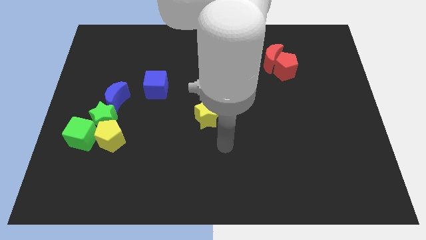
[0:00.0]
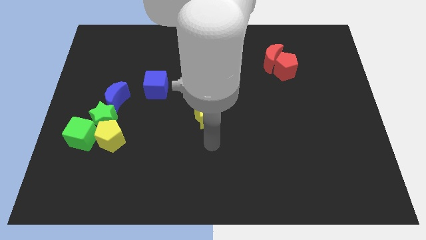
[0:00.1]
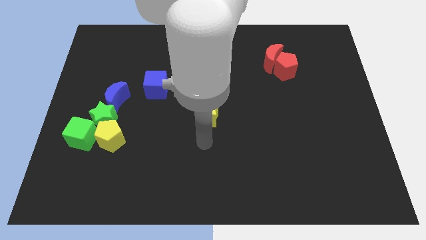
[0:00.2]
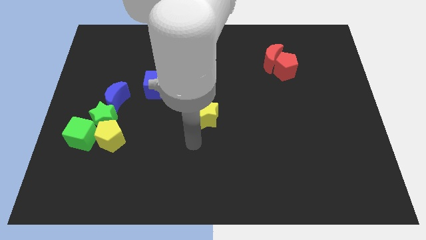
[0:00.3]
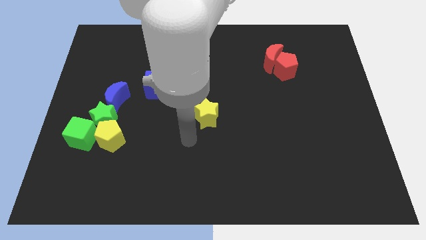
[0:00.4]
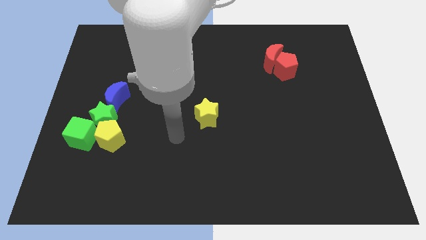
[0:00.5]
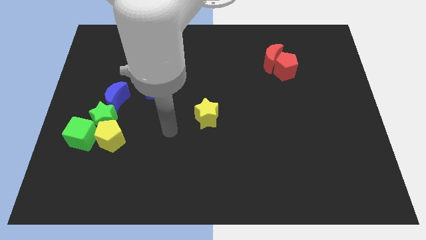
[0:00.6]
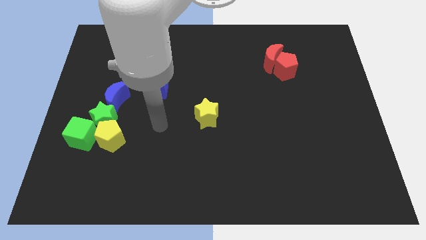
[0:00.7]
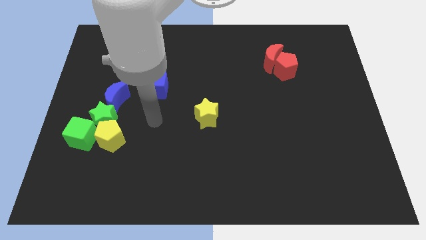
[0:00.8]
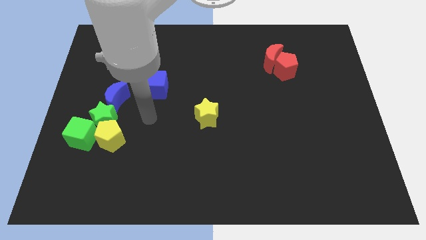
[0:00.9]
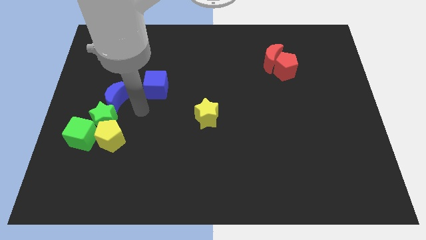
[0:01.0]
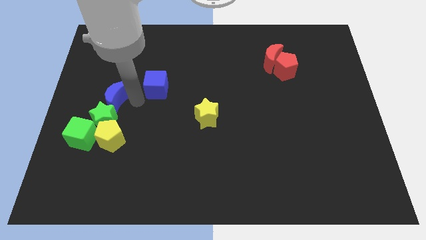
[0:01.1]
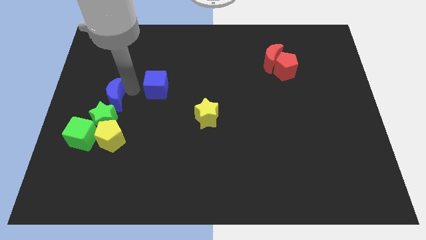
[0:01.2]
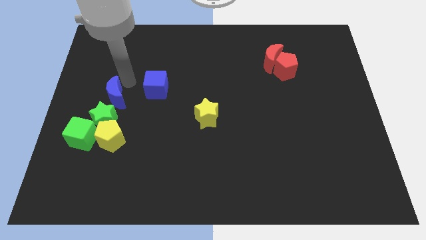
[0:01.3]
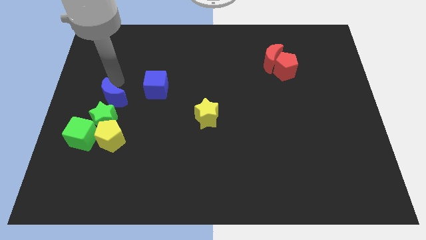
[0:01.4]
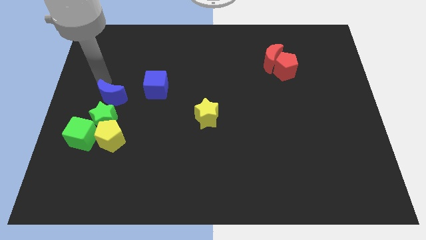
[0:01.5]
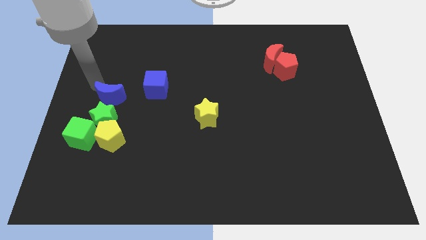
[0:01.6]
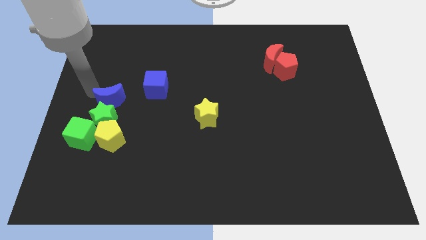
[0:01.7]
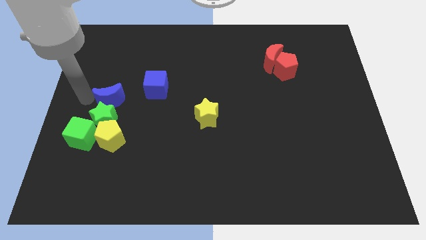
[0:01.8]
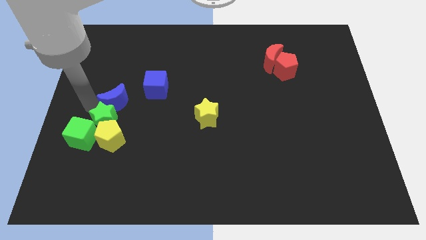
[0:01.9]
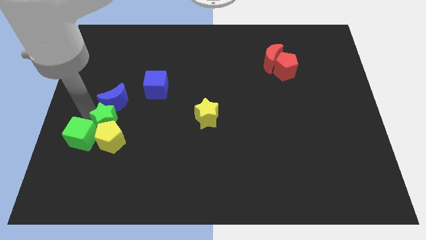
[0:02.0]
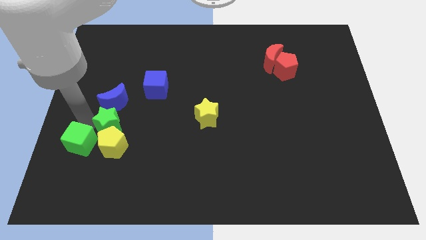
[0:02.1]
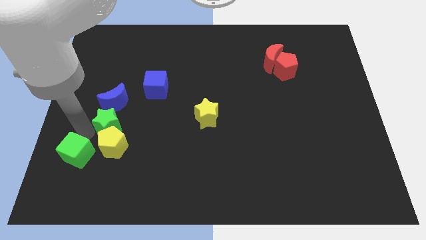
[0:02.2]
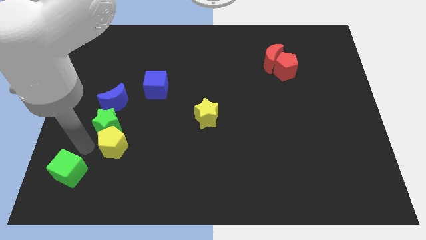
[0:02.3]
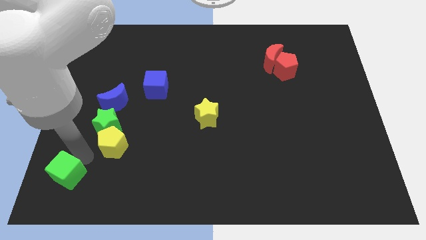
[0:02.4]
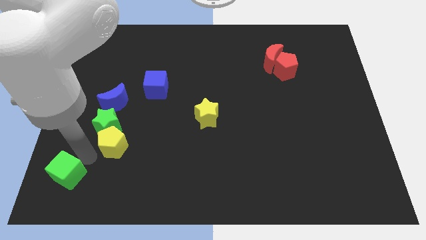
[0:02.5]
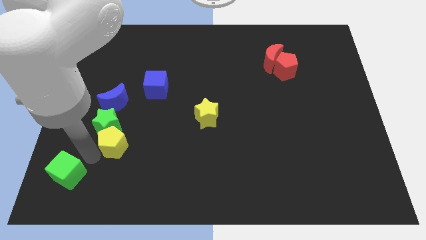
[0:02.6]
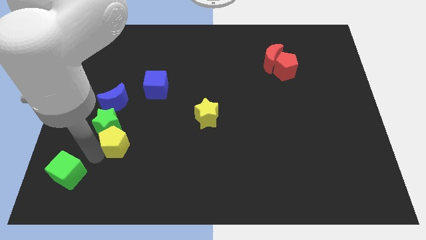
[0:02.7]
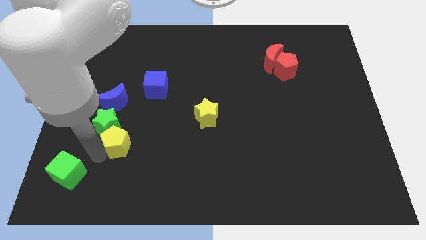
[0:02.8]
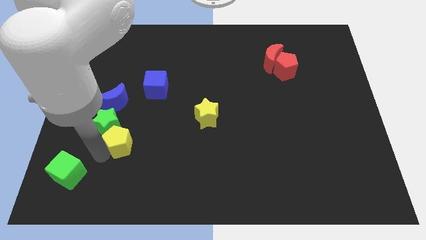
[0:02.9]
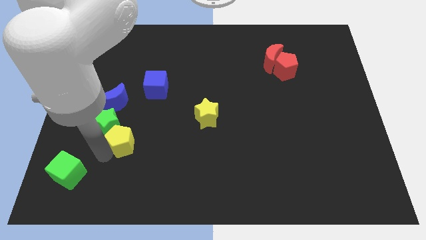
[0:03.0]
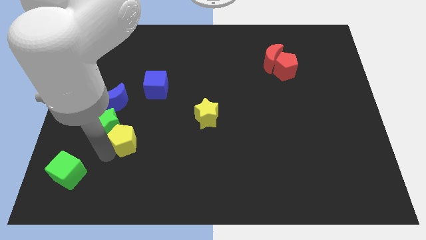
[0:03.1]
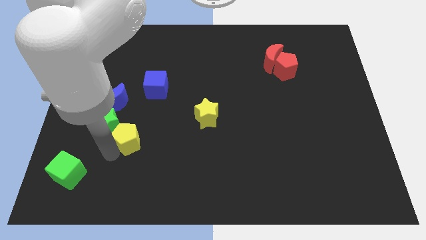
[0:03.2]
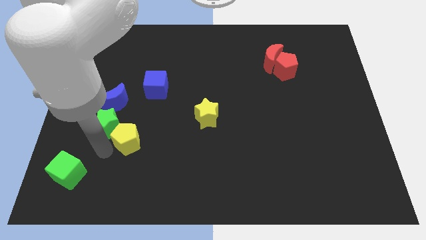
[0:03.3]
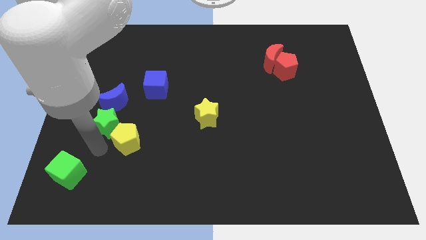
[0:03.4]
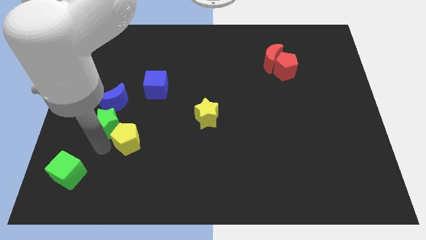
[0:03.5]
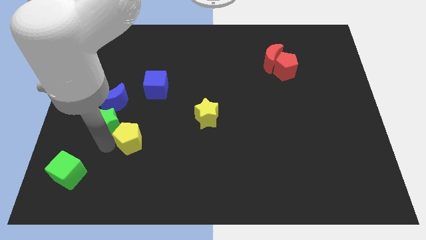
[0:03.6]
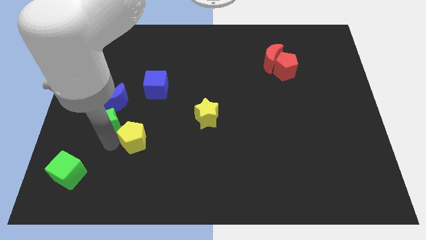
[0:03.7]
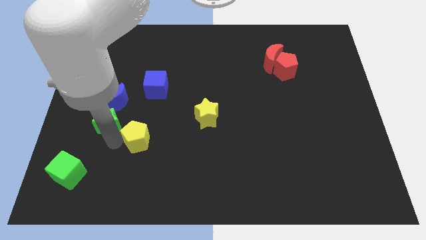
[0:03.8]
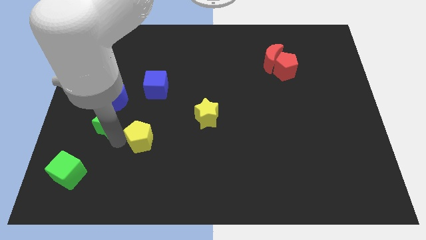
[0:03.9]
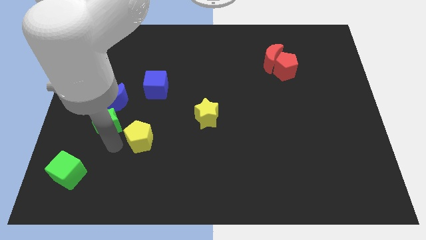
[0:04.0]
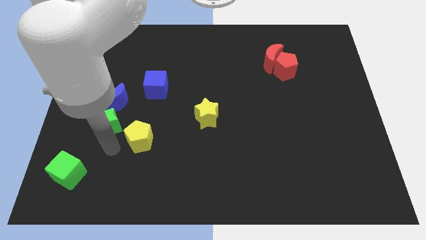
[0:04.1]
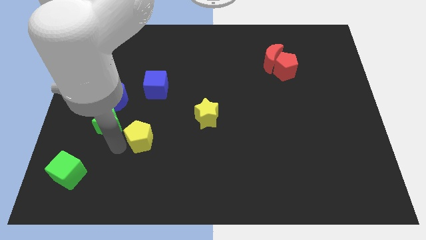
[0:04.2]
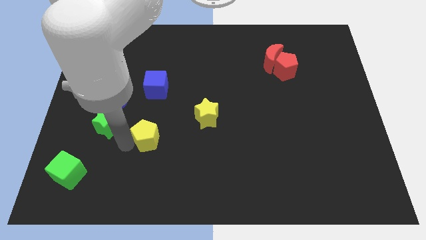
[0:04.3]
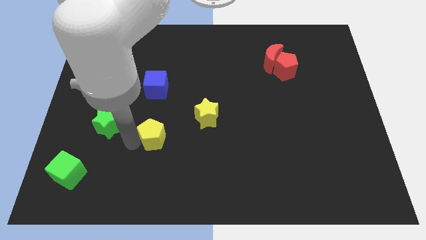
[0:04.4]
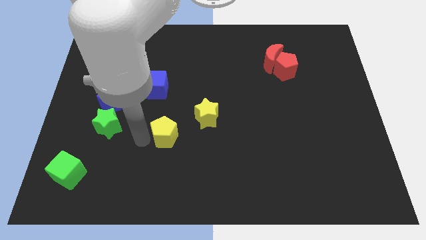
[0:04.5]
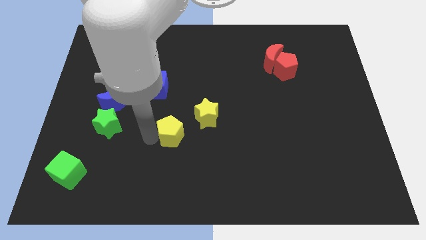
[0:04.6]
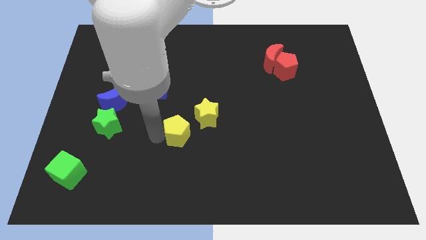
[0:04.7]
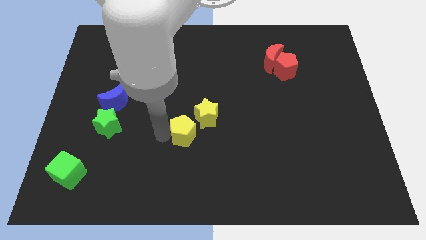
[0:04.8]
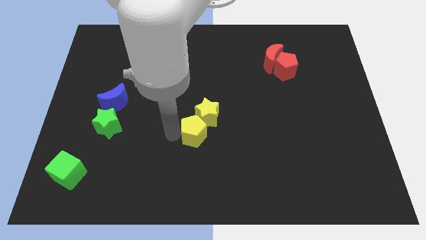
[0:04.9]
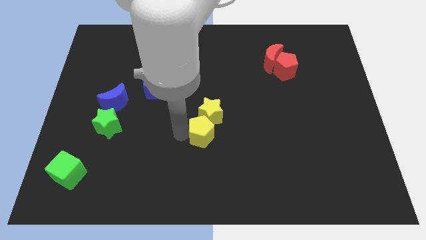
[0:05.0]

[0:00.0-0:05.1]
move the yellow pentagon to the right

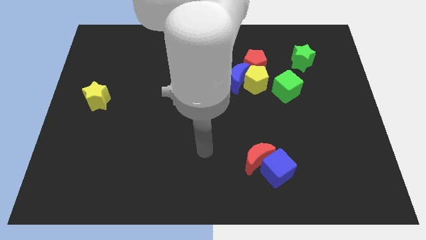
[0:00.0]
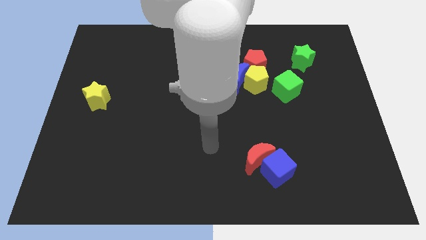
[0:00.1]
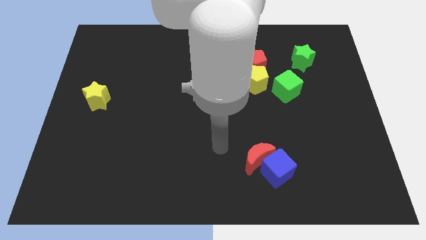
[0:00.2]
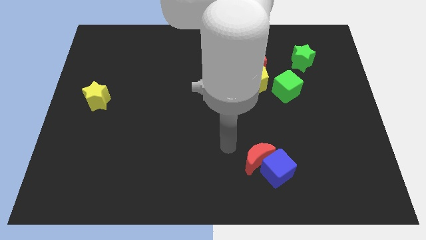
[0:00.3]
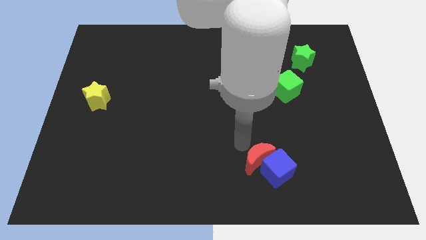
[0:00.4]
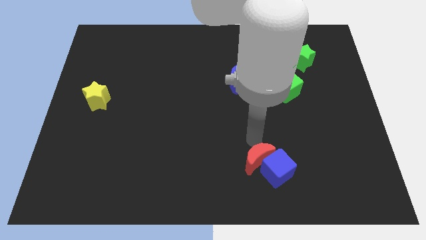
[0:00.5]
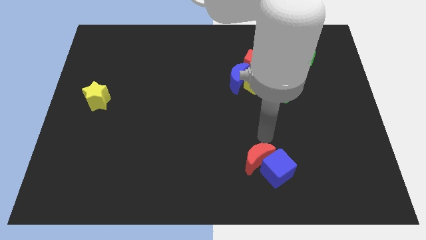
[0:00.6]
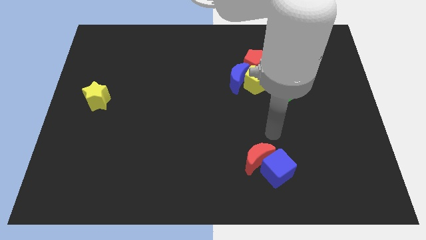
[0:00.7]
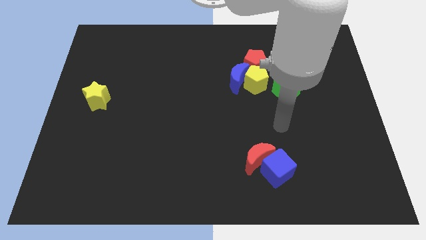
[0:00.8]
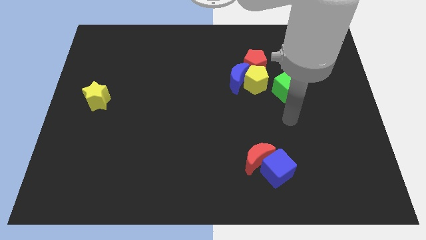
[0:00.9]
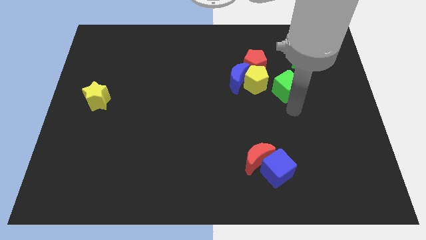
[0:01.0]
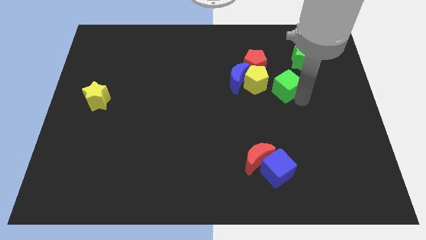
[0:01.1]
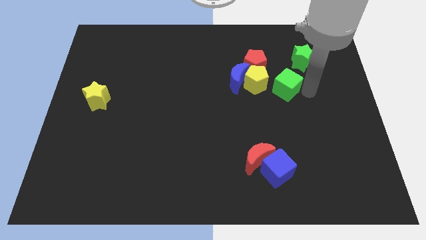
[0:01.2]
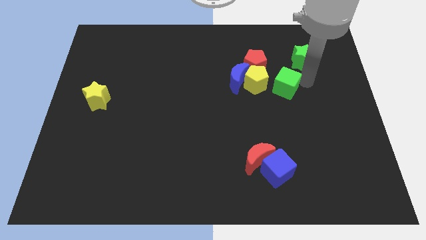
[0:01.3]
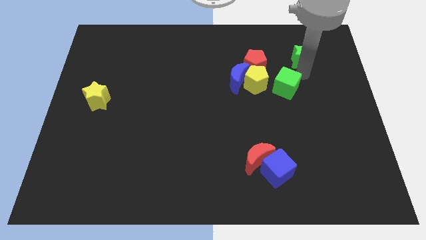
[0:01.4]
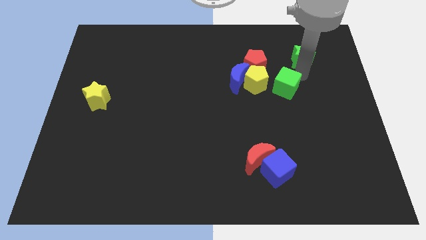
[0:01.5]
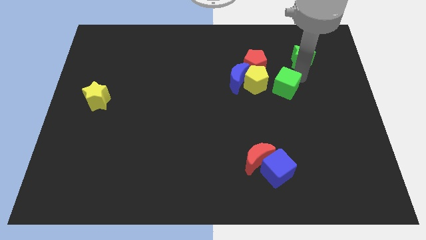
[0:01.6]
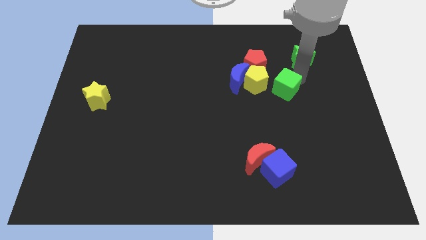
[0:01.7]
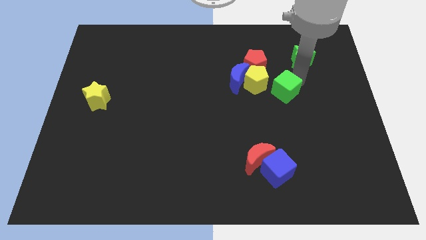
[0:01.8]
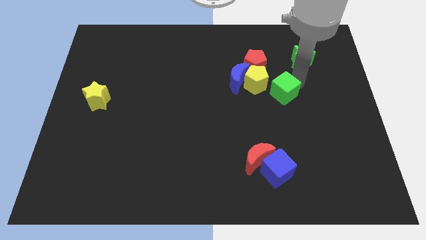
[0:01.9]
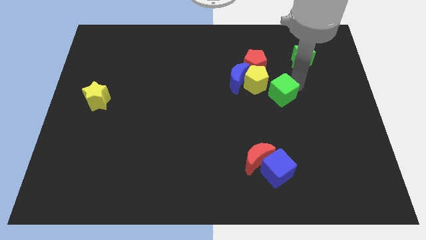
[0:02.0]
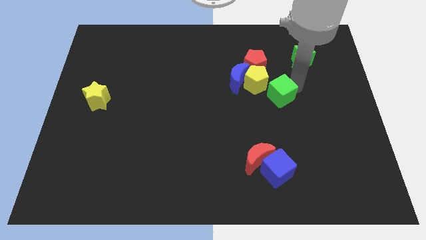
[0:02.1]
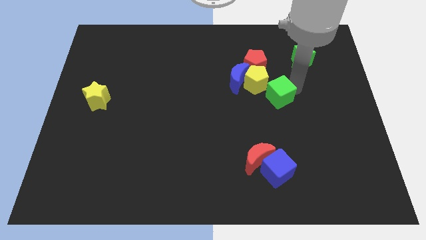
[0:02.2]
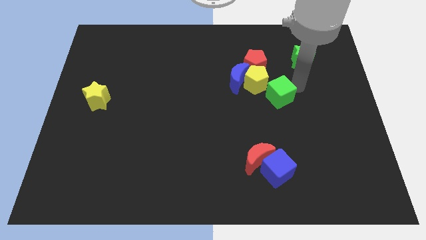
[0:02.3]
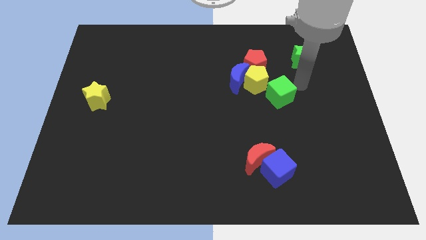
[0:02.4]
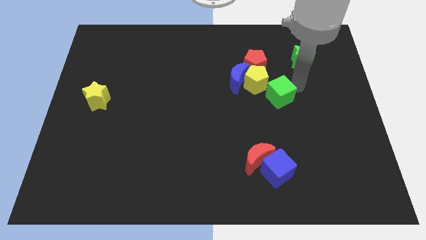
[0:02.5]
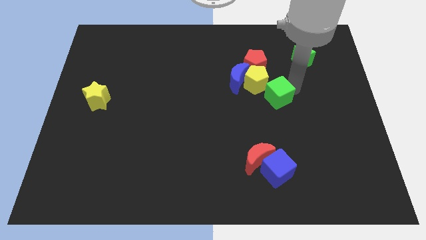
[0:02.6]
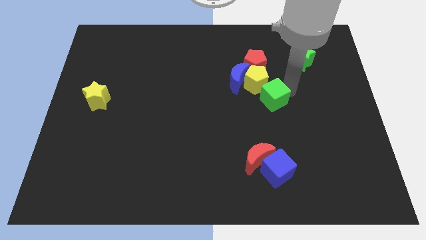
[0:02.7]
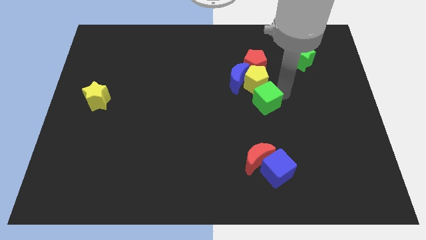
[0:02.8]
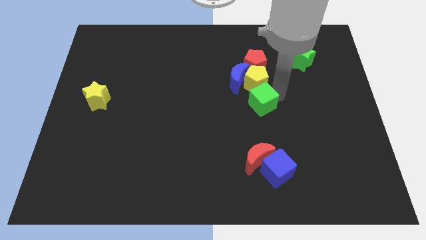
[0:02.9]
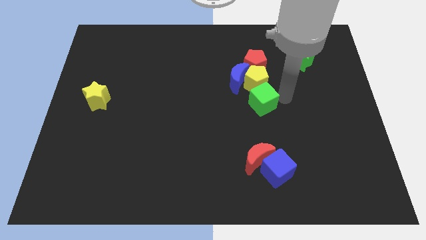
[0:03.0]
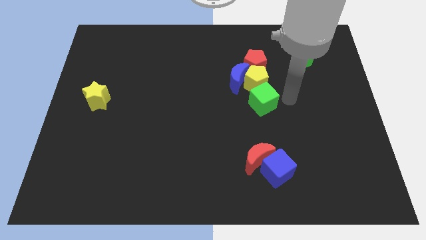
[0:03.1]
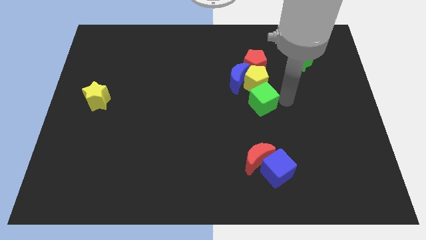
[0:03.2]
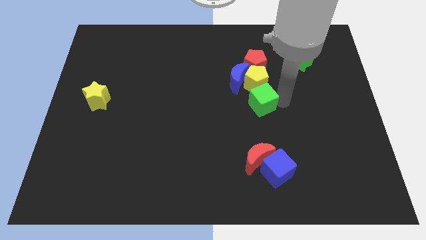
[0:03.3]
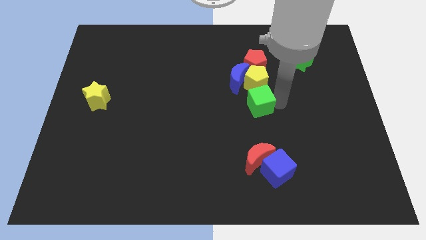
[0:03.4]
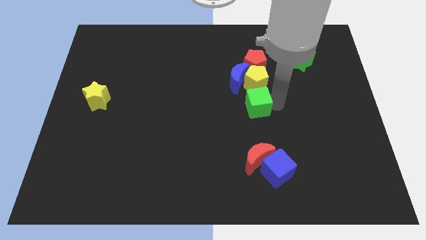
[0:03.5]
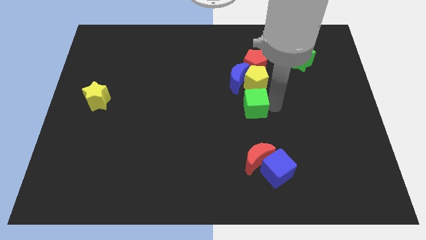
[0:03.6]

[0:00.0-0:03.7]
push the green cube a little bit left
